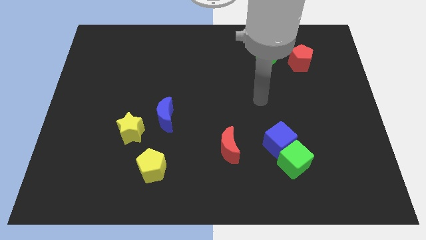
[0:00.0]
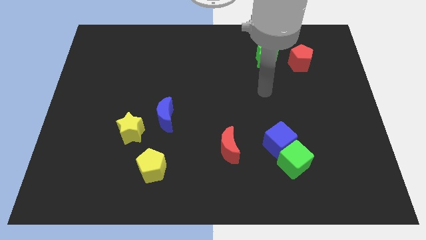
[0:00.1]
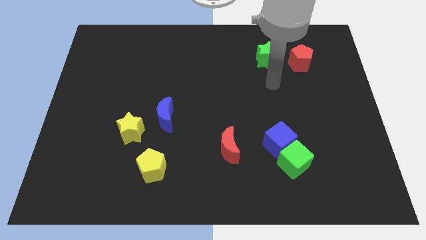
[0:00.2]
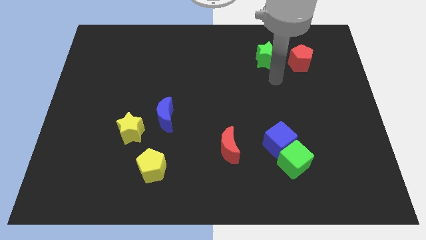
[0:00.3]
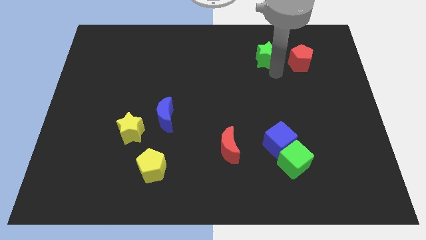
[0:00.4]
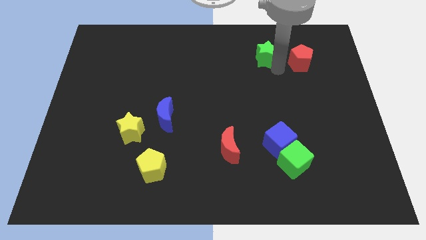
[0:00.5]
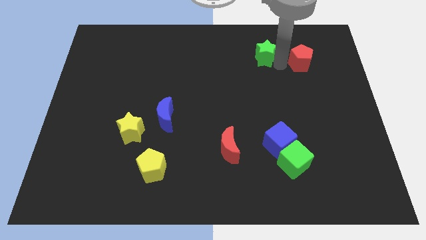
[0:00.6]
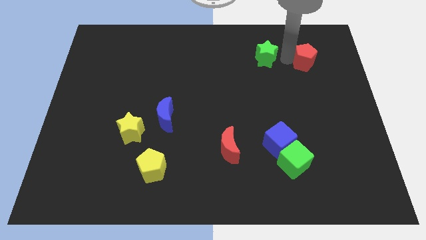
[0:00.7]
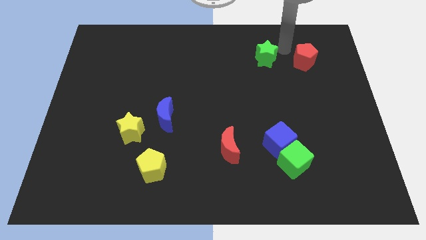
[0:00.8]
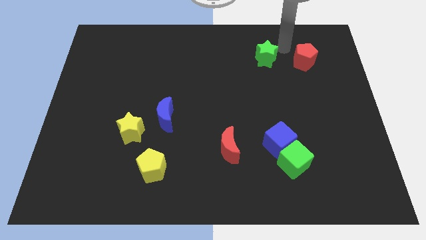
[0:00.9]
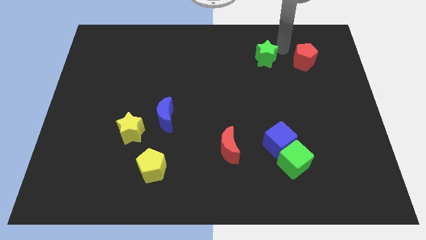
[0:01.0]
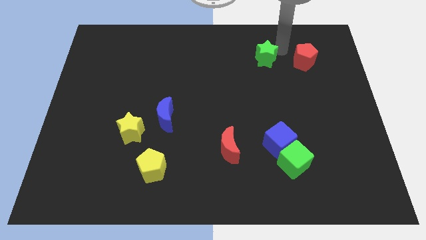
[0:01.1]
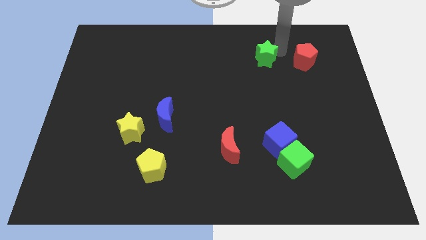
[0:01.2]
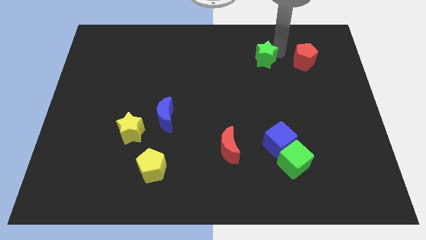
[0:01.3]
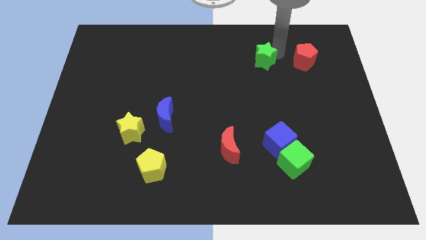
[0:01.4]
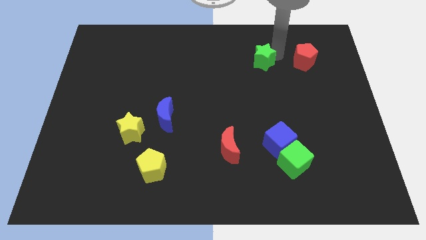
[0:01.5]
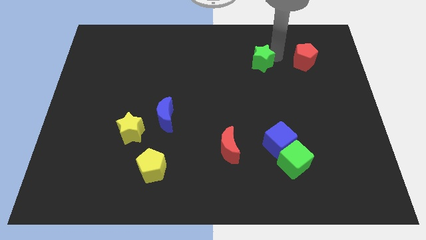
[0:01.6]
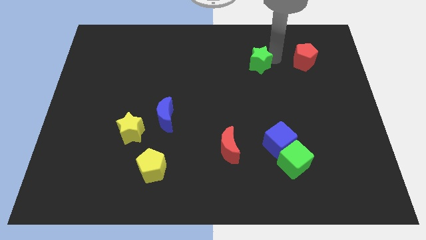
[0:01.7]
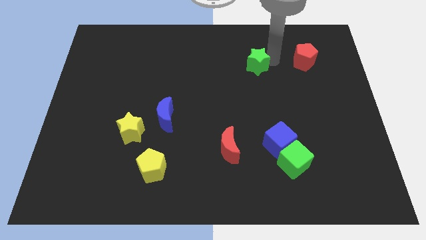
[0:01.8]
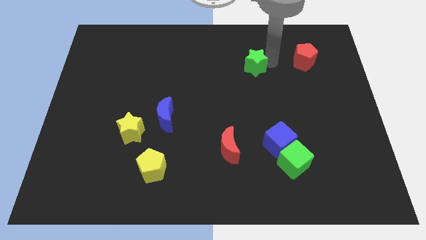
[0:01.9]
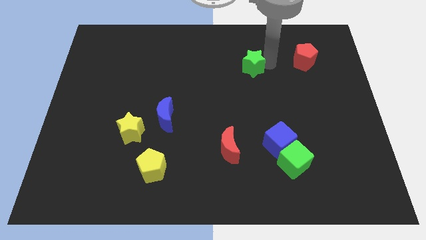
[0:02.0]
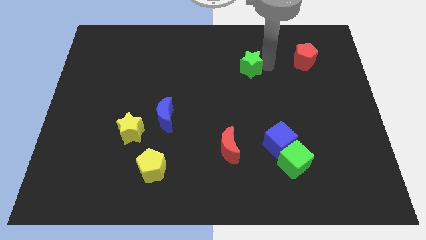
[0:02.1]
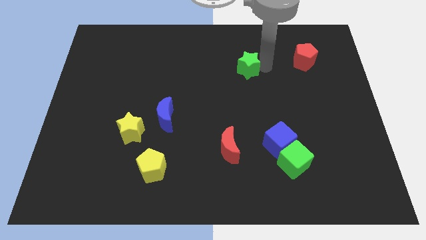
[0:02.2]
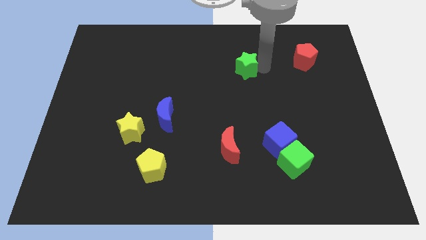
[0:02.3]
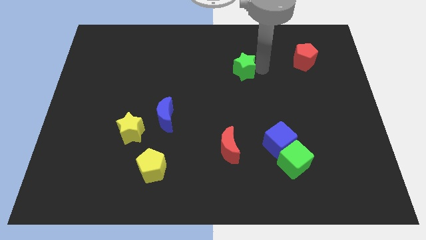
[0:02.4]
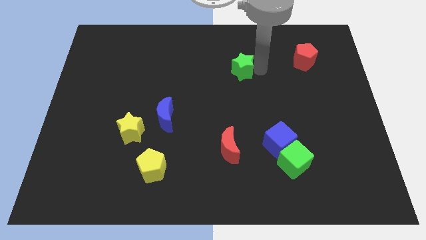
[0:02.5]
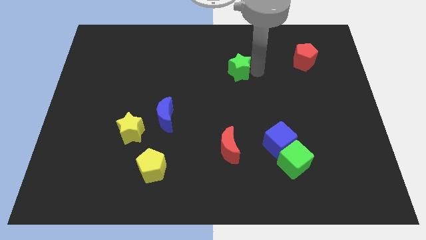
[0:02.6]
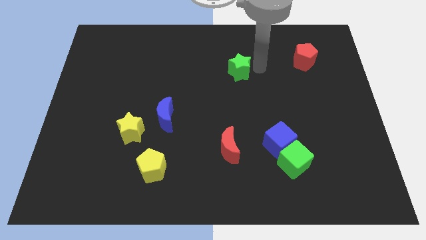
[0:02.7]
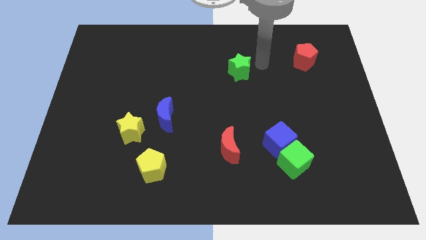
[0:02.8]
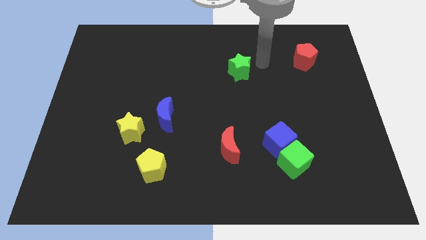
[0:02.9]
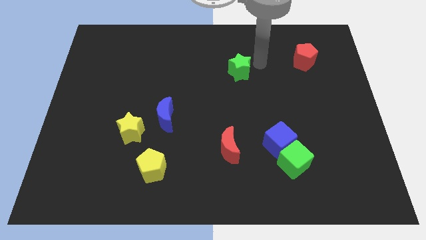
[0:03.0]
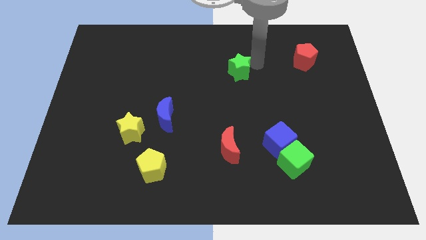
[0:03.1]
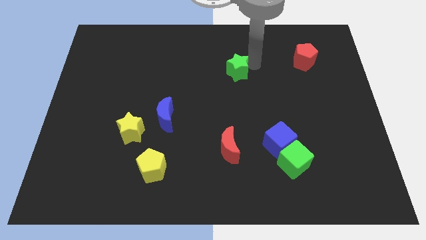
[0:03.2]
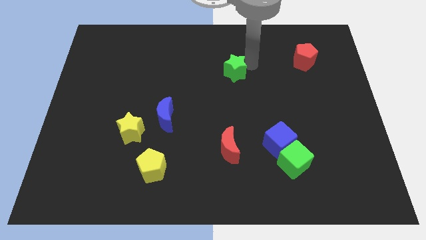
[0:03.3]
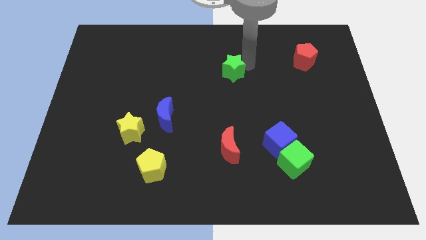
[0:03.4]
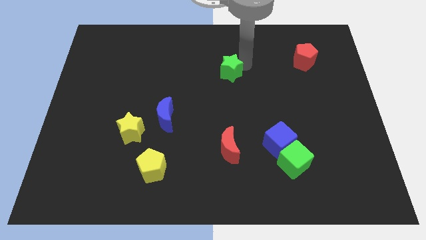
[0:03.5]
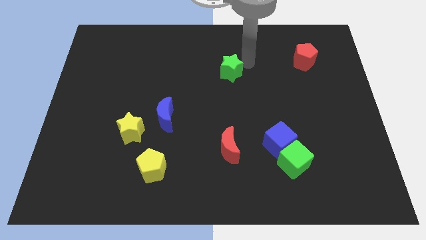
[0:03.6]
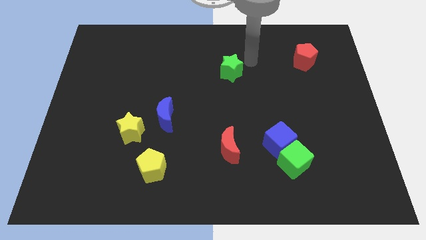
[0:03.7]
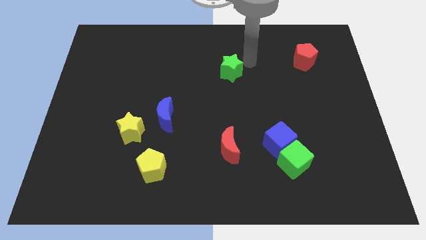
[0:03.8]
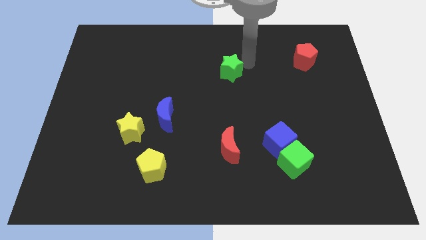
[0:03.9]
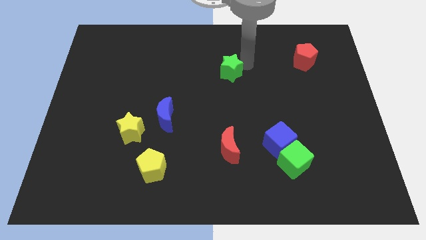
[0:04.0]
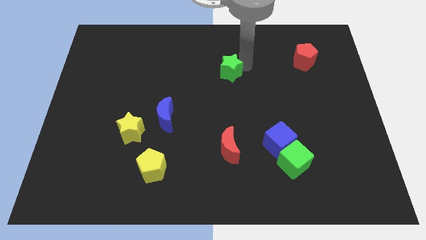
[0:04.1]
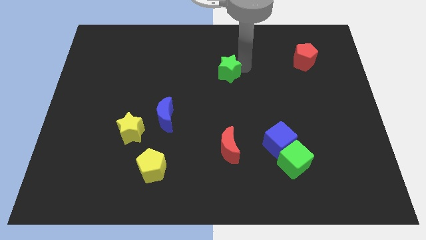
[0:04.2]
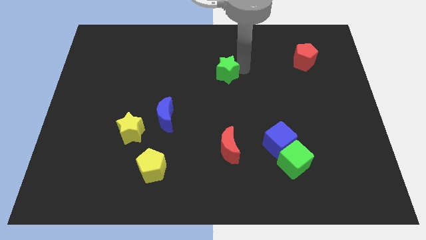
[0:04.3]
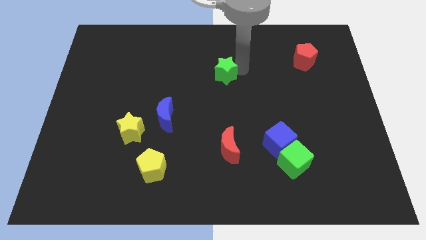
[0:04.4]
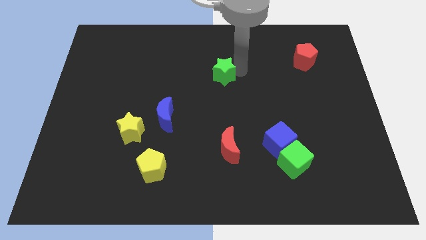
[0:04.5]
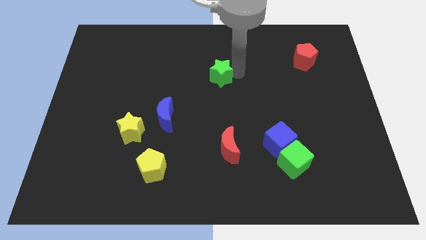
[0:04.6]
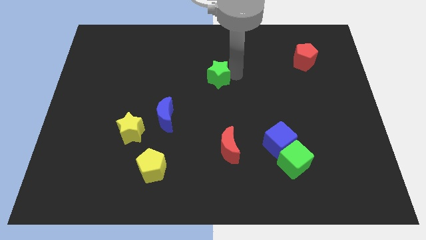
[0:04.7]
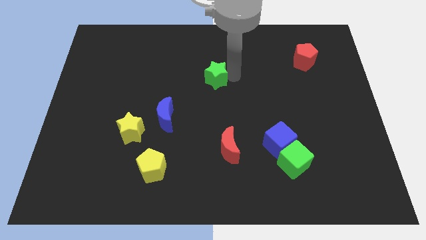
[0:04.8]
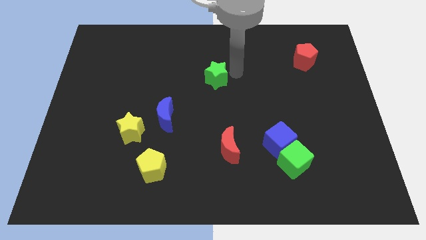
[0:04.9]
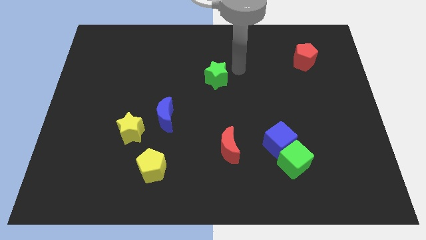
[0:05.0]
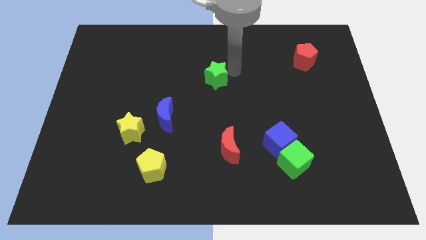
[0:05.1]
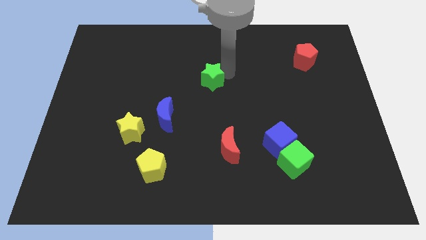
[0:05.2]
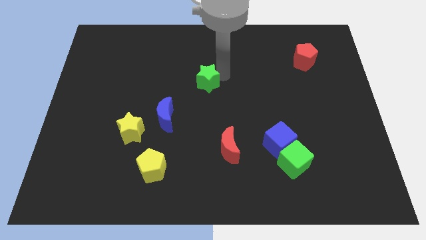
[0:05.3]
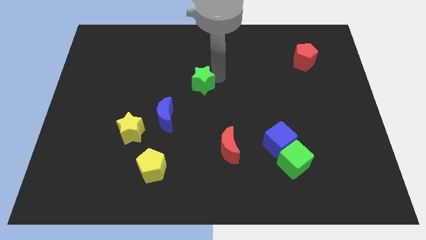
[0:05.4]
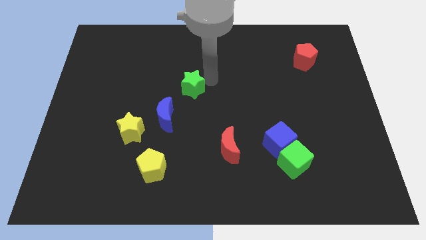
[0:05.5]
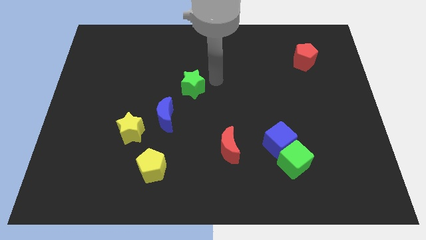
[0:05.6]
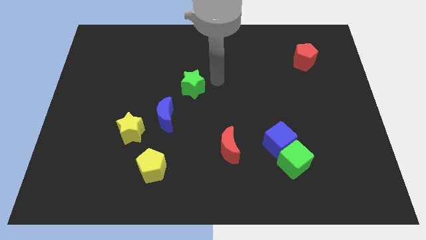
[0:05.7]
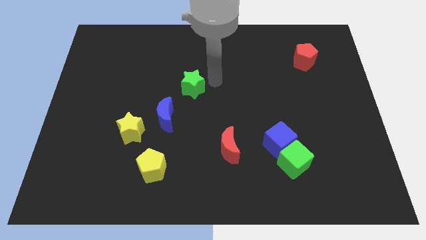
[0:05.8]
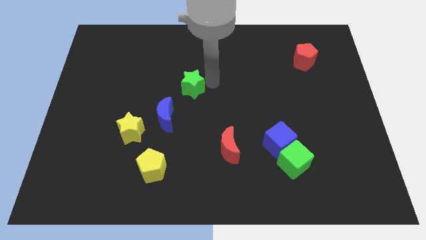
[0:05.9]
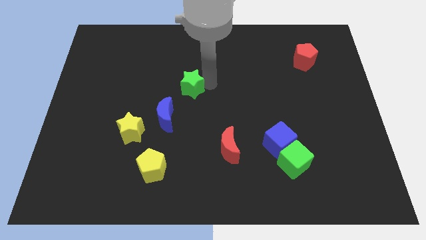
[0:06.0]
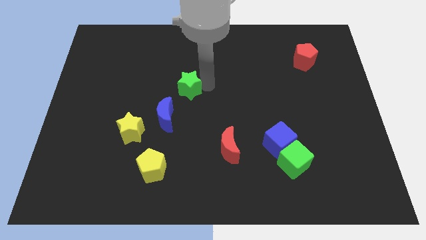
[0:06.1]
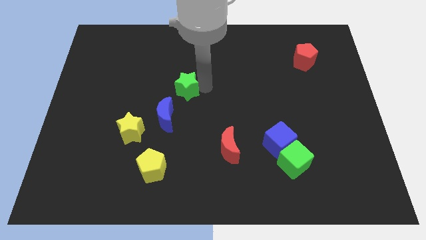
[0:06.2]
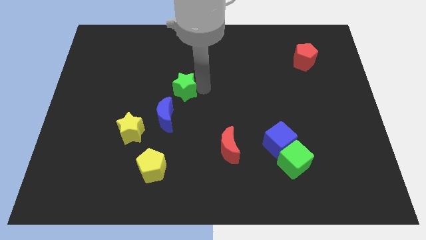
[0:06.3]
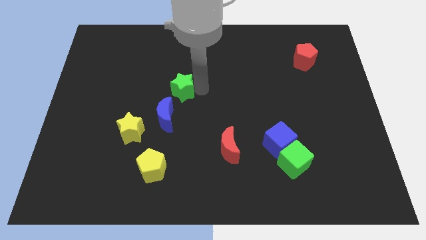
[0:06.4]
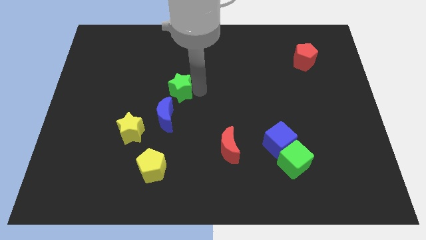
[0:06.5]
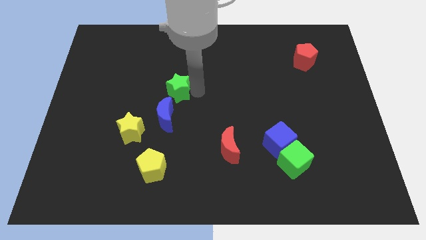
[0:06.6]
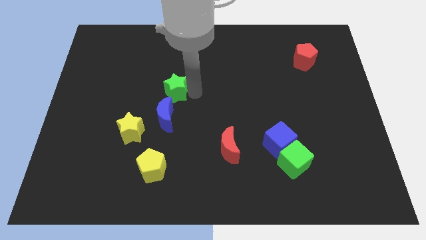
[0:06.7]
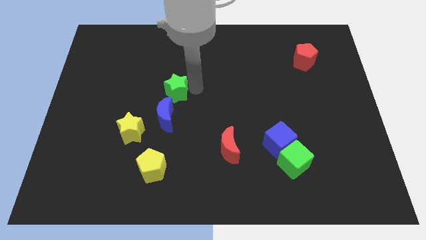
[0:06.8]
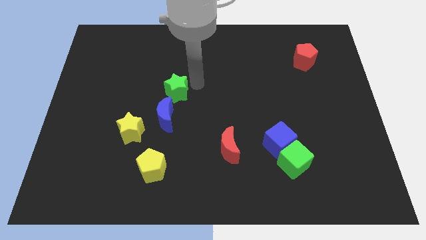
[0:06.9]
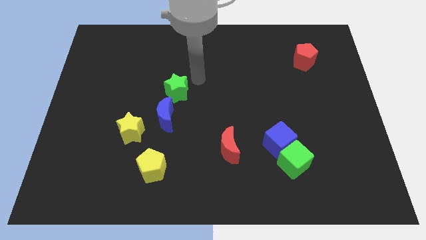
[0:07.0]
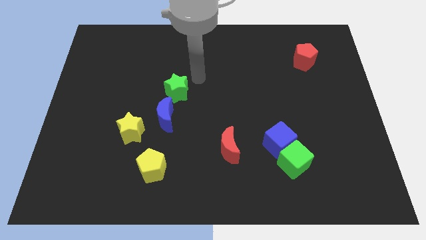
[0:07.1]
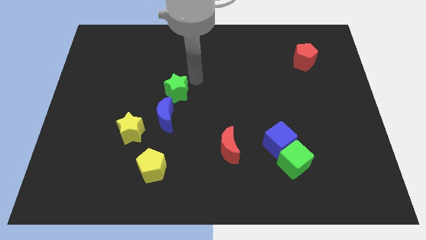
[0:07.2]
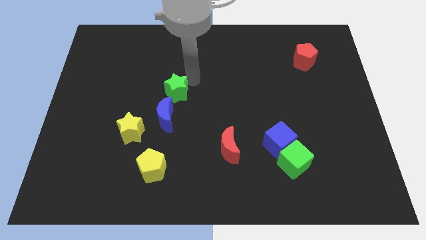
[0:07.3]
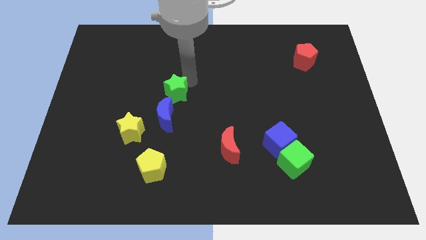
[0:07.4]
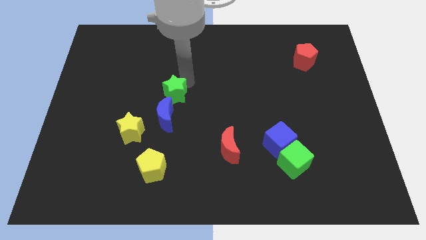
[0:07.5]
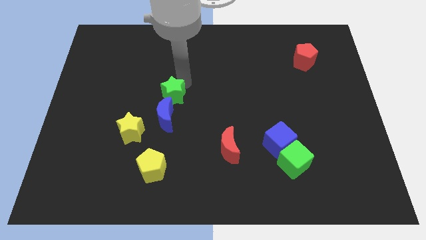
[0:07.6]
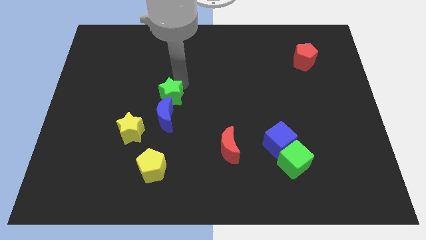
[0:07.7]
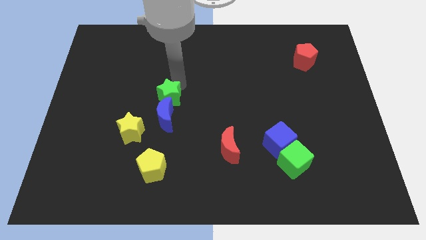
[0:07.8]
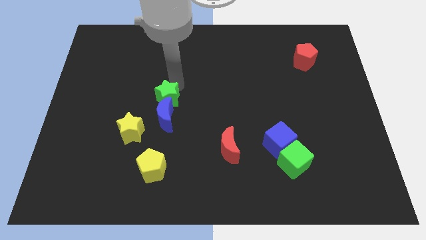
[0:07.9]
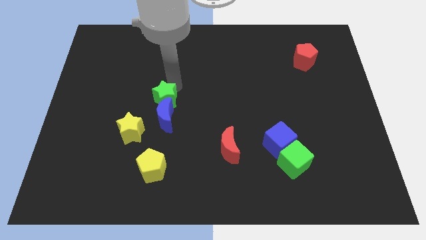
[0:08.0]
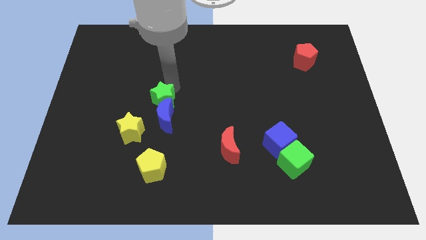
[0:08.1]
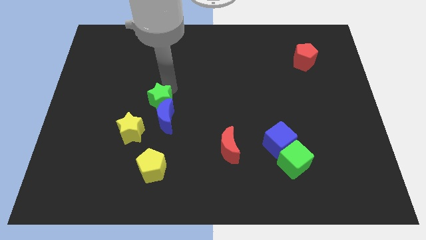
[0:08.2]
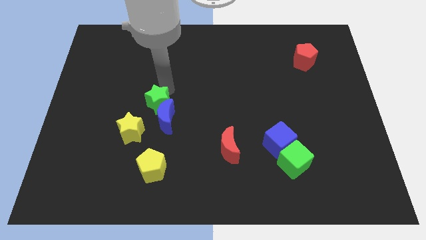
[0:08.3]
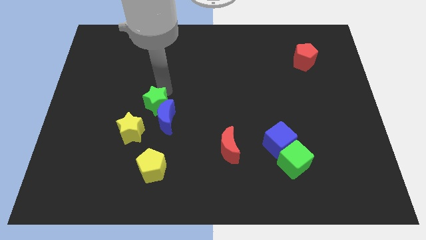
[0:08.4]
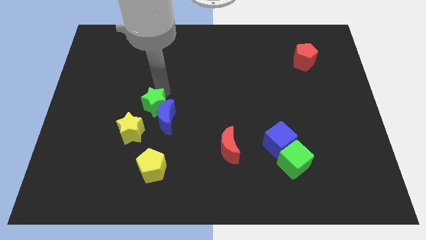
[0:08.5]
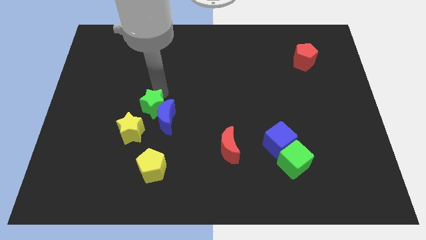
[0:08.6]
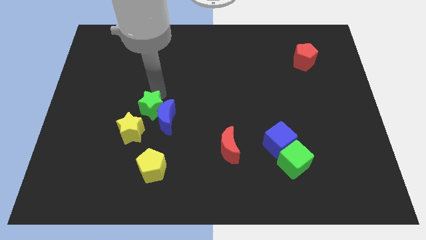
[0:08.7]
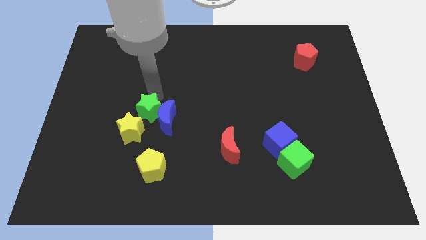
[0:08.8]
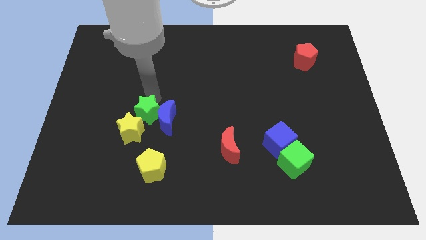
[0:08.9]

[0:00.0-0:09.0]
put the green star close to the yellow star
